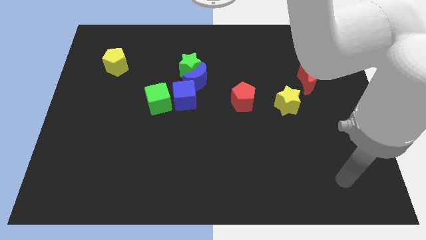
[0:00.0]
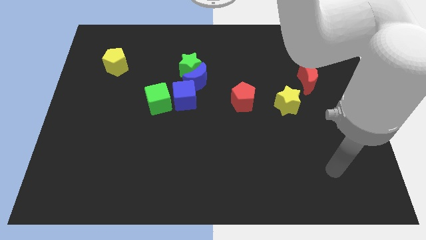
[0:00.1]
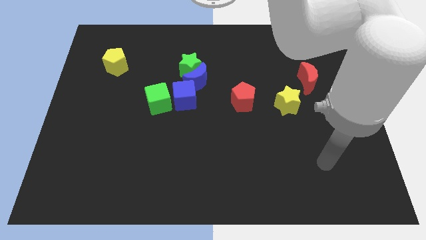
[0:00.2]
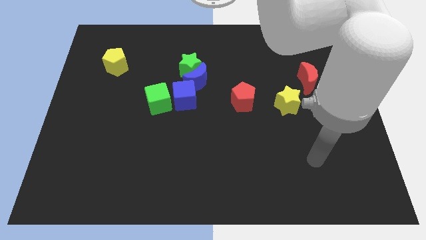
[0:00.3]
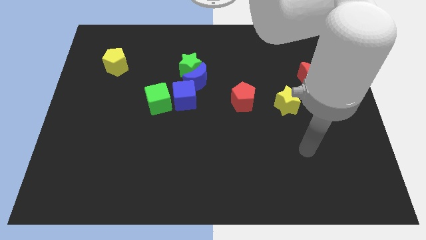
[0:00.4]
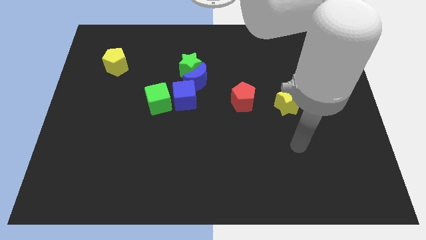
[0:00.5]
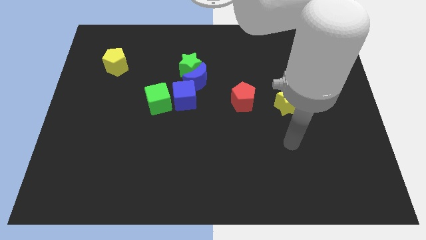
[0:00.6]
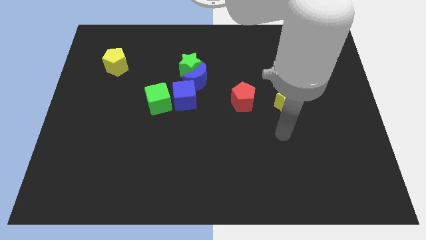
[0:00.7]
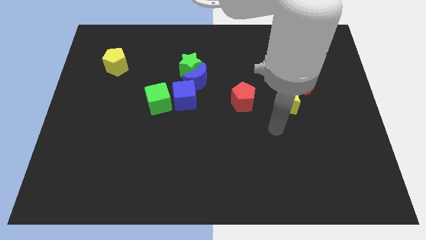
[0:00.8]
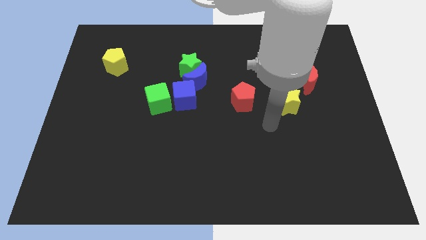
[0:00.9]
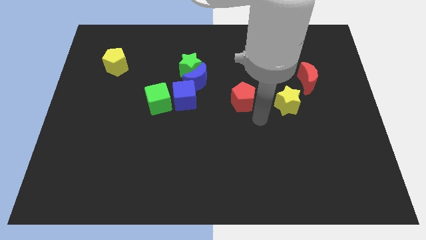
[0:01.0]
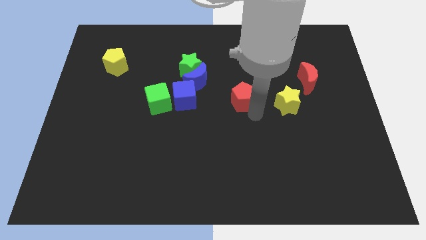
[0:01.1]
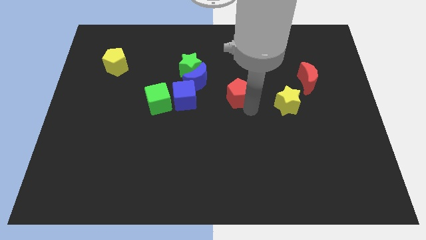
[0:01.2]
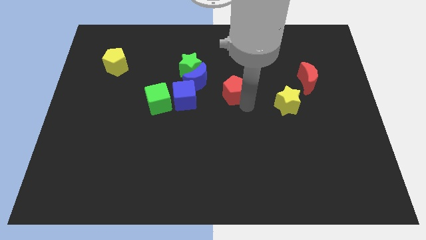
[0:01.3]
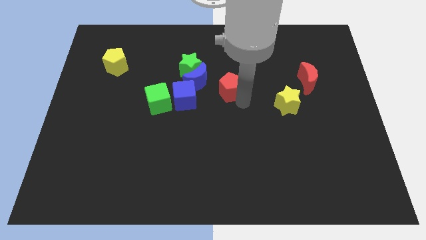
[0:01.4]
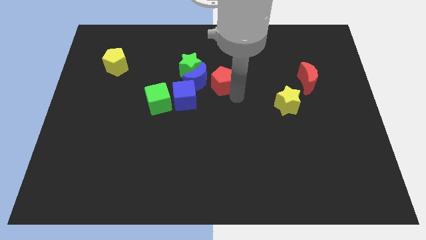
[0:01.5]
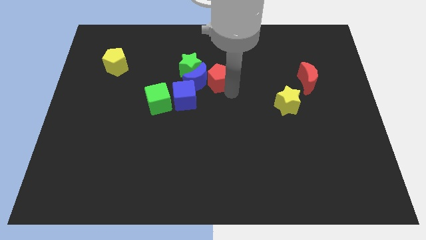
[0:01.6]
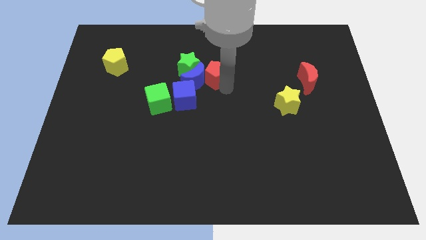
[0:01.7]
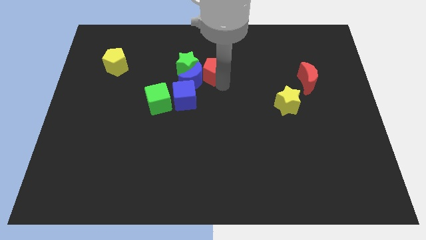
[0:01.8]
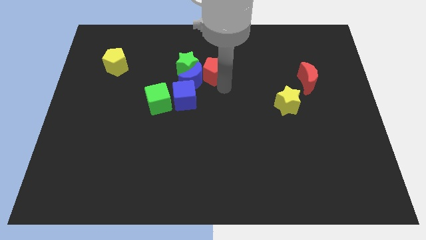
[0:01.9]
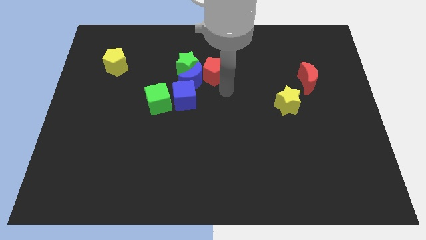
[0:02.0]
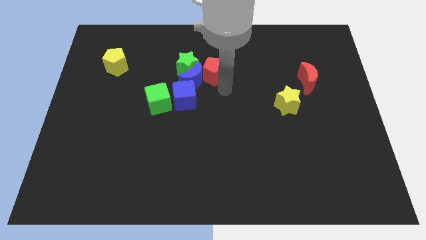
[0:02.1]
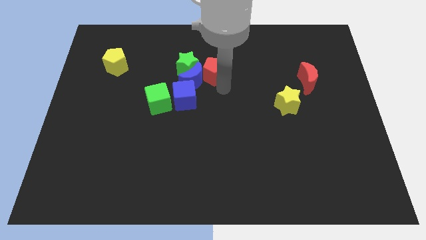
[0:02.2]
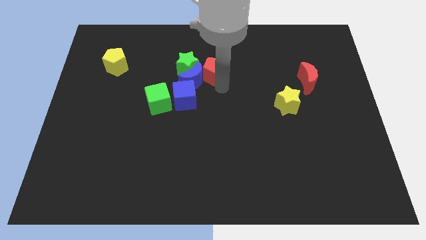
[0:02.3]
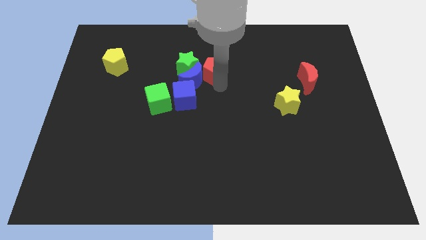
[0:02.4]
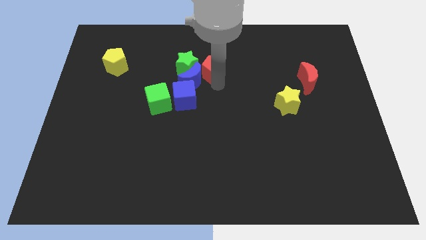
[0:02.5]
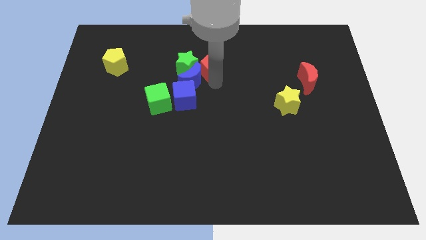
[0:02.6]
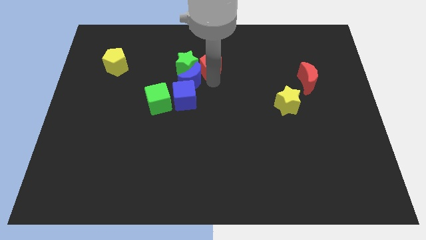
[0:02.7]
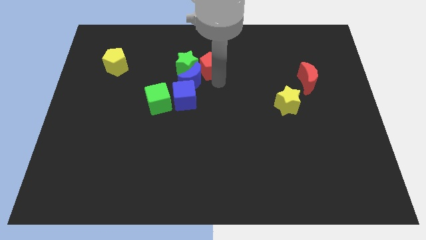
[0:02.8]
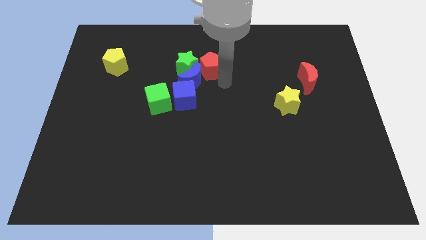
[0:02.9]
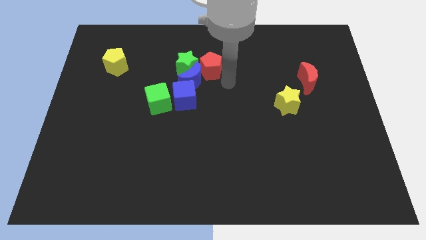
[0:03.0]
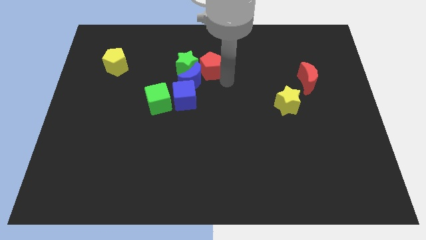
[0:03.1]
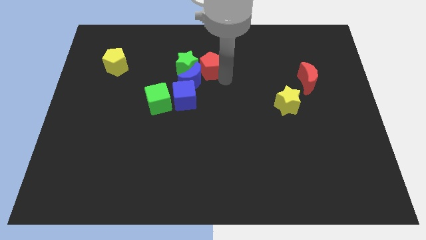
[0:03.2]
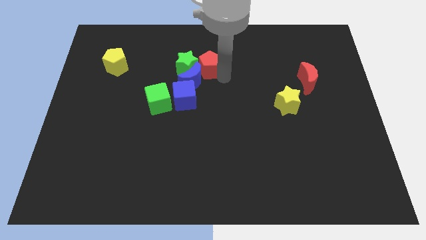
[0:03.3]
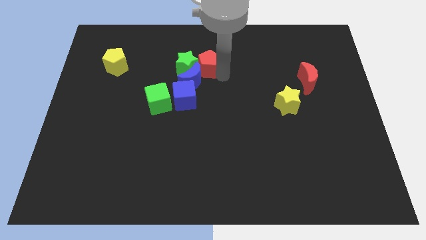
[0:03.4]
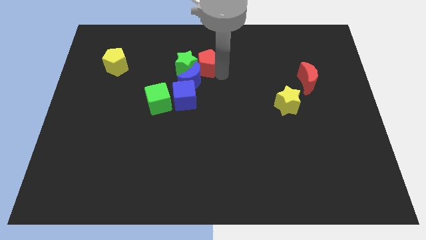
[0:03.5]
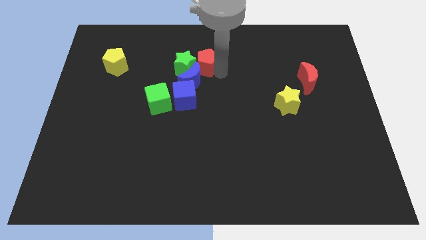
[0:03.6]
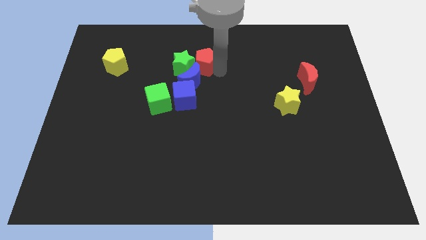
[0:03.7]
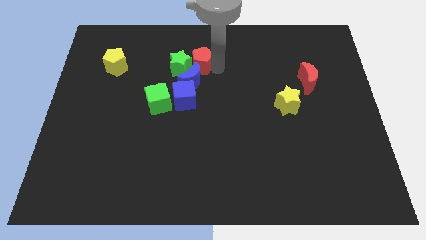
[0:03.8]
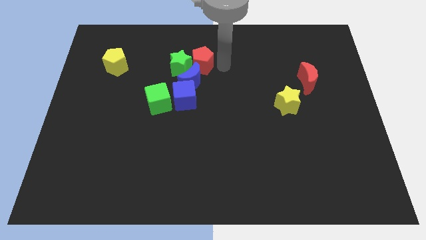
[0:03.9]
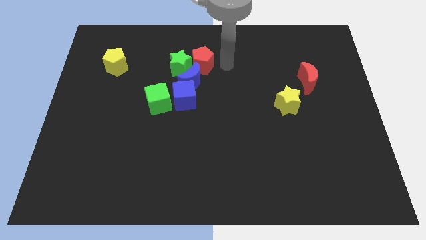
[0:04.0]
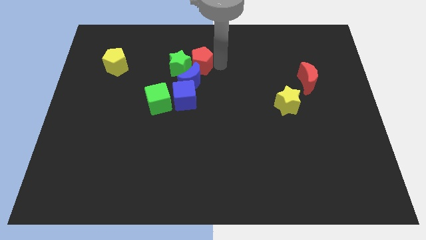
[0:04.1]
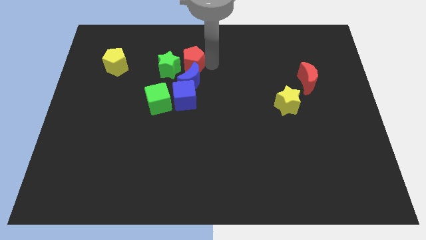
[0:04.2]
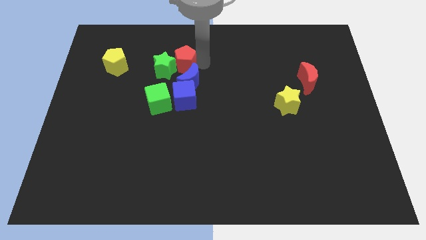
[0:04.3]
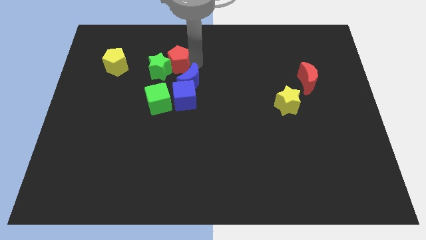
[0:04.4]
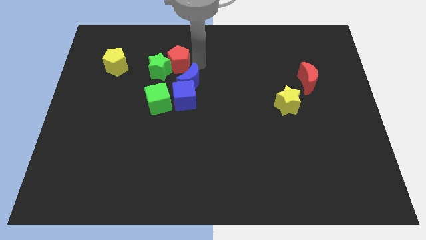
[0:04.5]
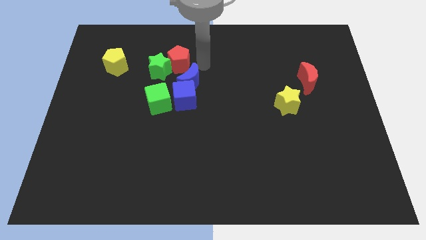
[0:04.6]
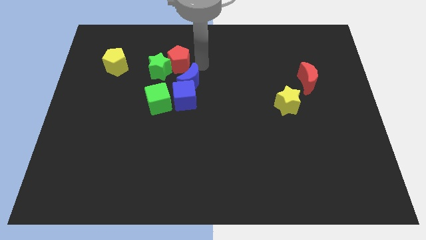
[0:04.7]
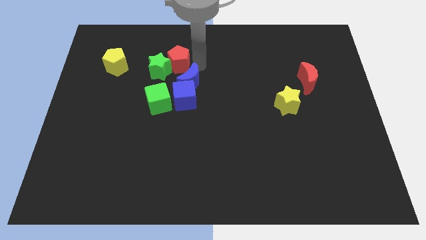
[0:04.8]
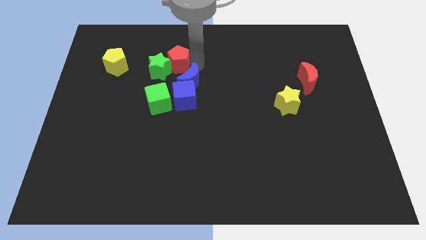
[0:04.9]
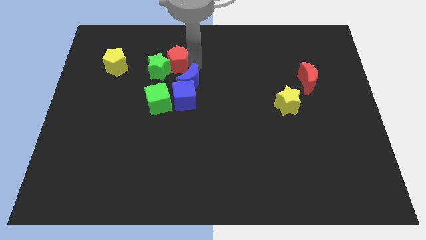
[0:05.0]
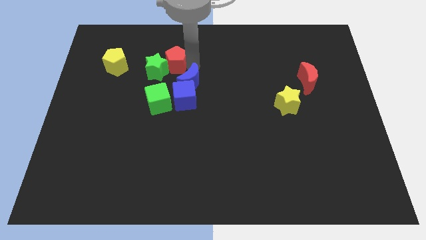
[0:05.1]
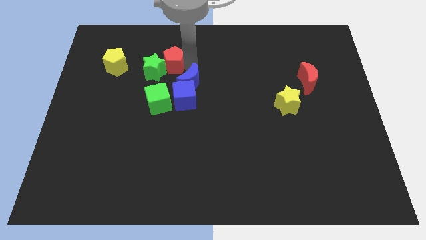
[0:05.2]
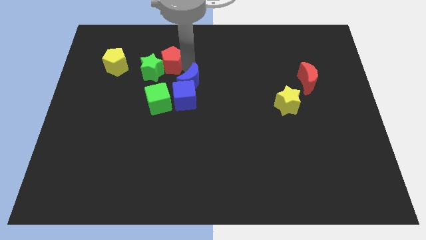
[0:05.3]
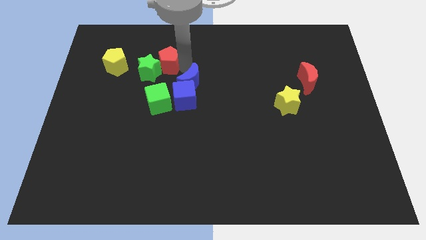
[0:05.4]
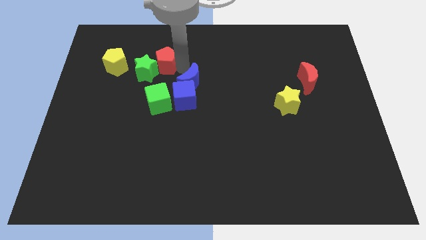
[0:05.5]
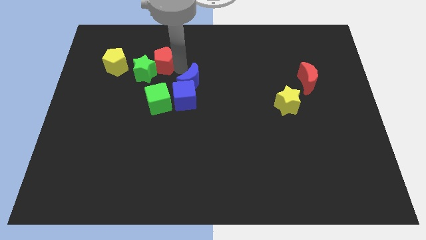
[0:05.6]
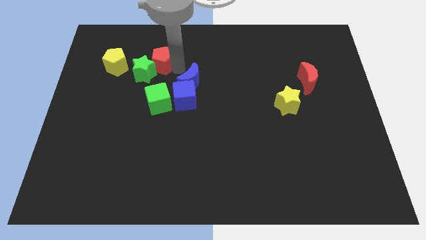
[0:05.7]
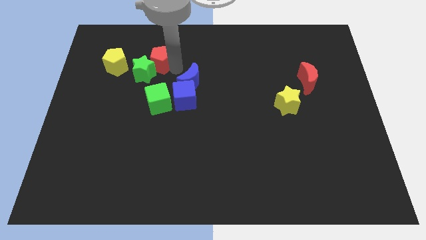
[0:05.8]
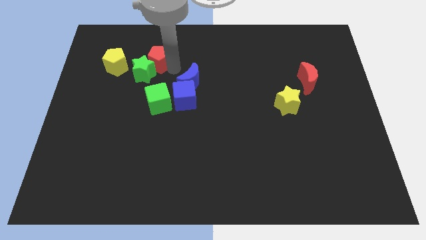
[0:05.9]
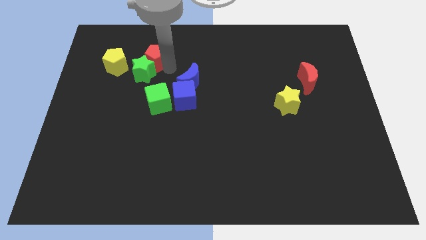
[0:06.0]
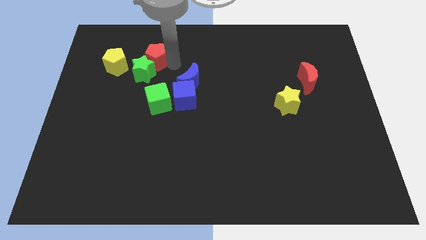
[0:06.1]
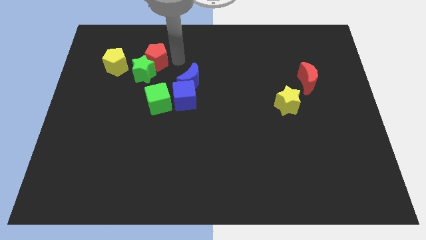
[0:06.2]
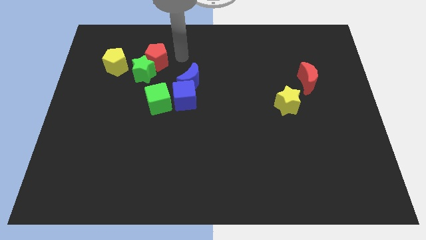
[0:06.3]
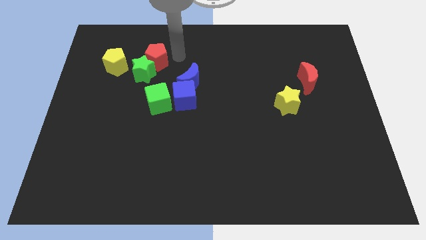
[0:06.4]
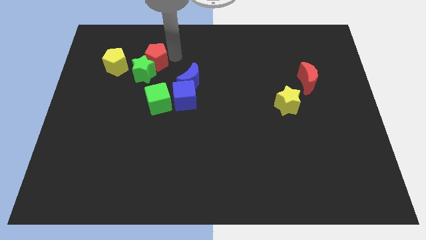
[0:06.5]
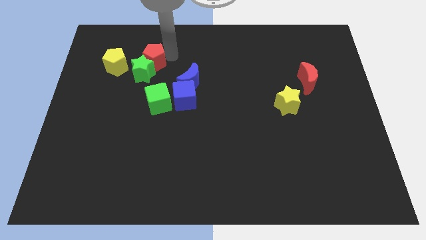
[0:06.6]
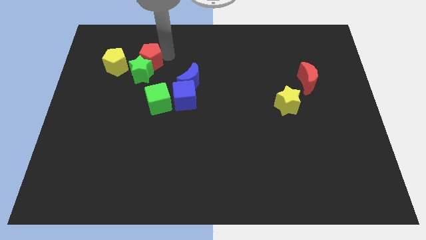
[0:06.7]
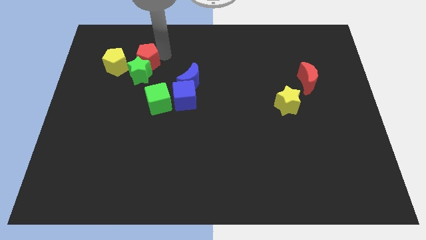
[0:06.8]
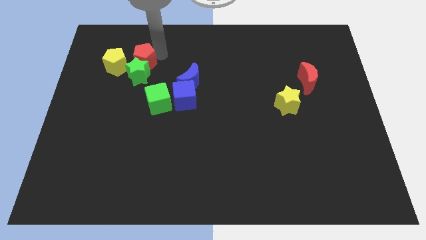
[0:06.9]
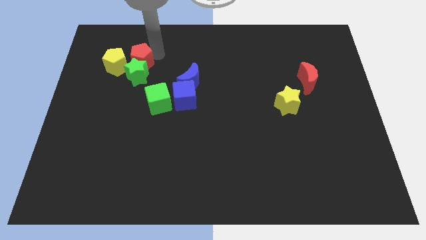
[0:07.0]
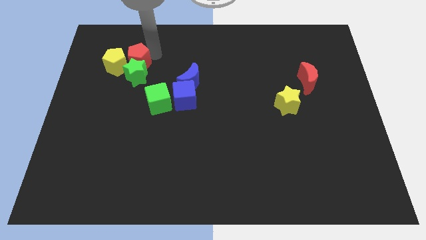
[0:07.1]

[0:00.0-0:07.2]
move the red pentagon towards the yellow pentagon

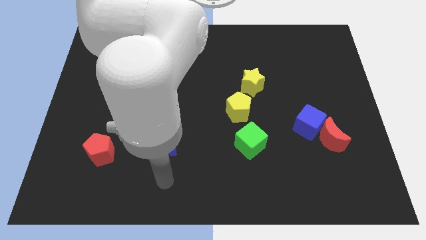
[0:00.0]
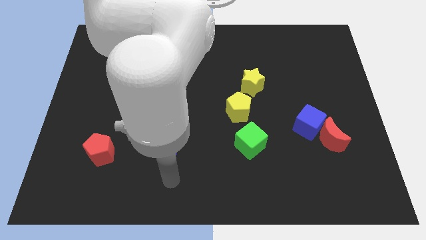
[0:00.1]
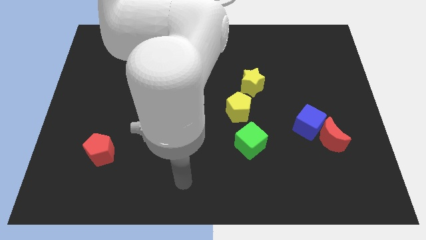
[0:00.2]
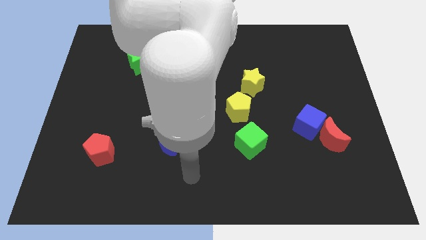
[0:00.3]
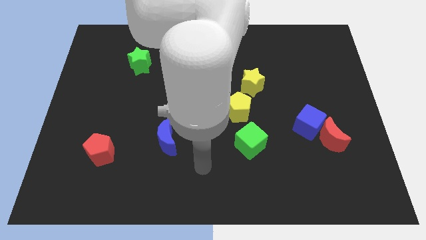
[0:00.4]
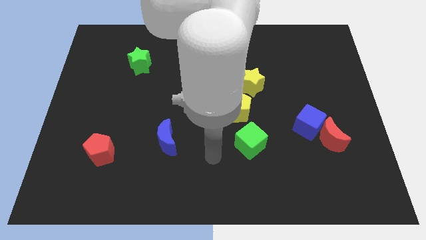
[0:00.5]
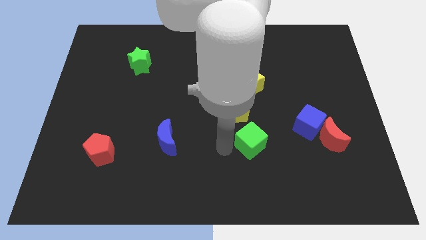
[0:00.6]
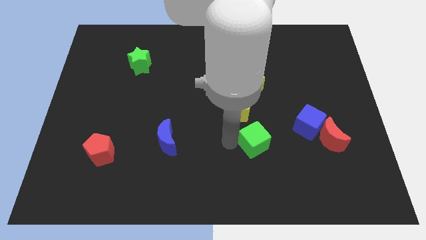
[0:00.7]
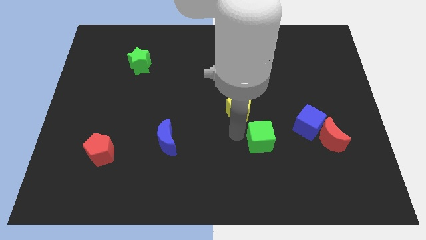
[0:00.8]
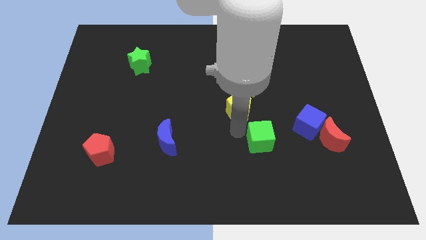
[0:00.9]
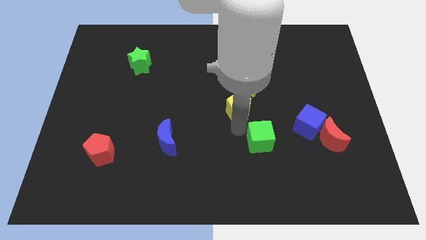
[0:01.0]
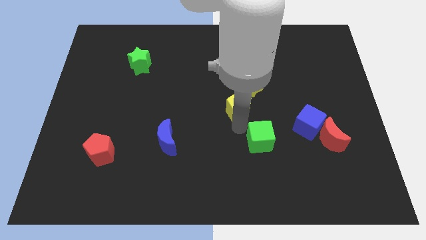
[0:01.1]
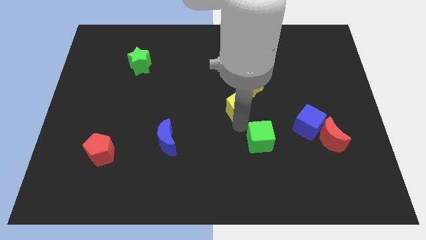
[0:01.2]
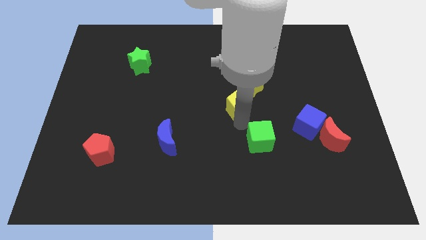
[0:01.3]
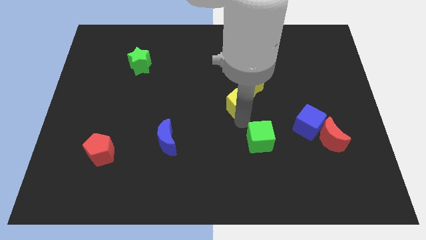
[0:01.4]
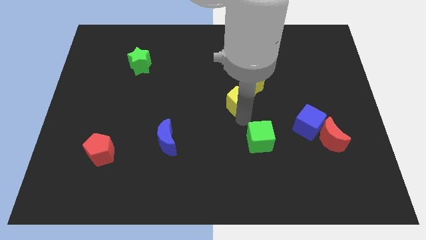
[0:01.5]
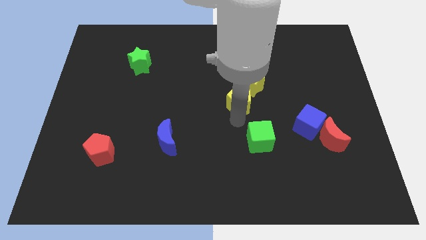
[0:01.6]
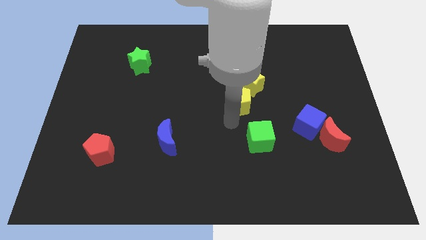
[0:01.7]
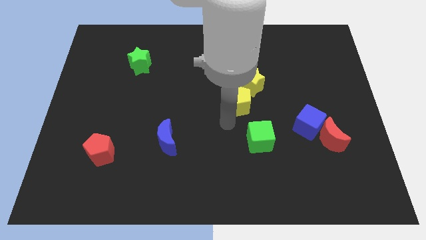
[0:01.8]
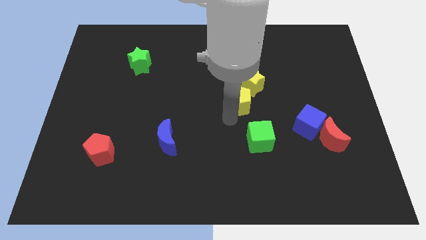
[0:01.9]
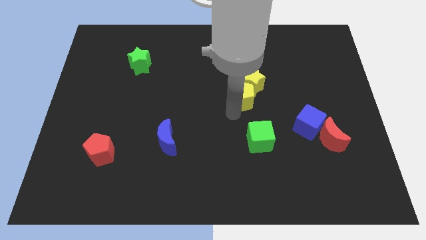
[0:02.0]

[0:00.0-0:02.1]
push the yellow pentagon next to the yellow star
